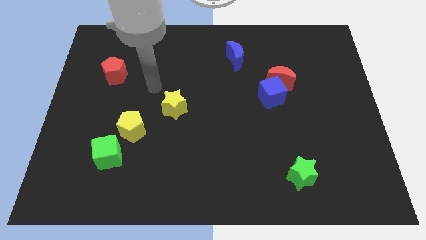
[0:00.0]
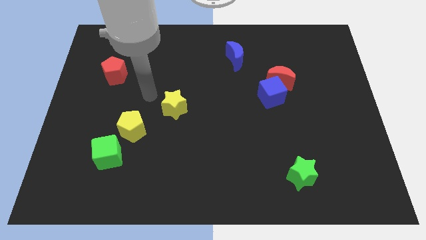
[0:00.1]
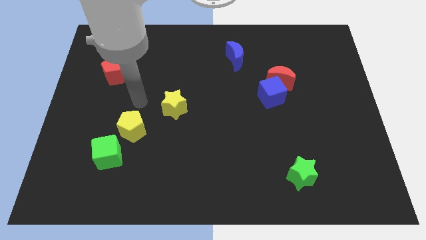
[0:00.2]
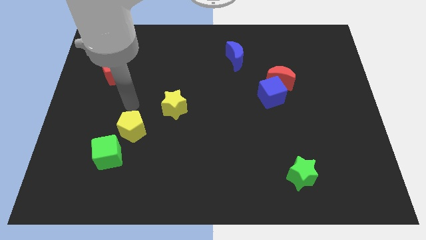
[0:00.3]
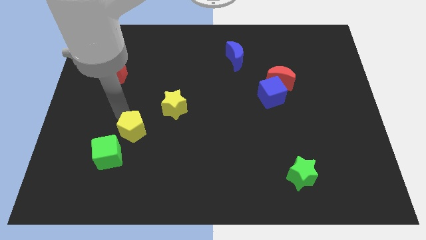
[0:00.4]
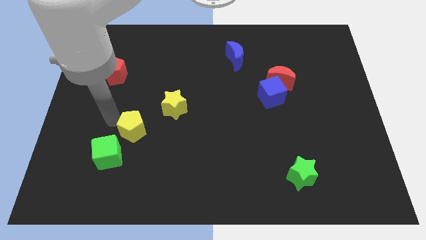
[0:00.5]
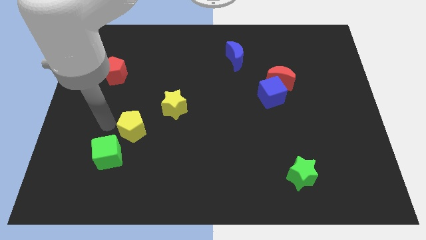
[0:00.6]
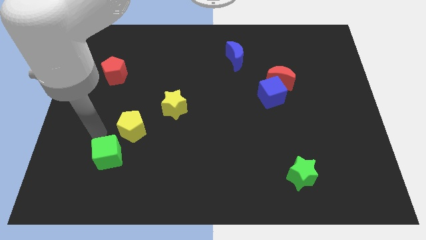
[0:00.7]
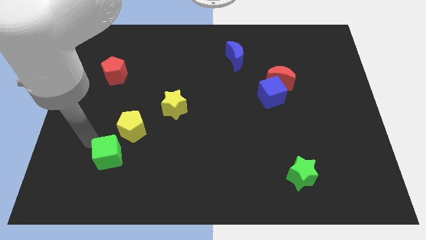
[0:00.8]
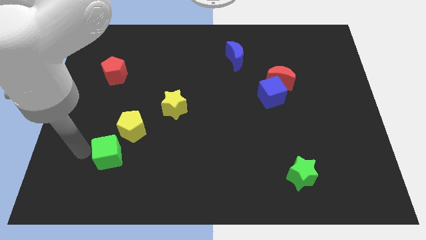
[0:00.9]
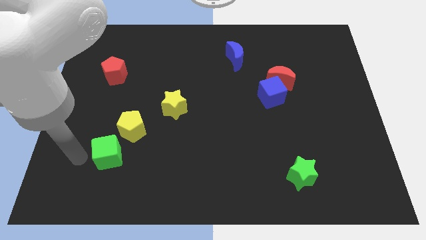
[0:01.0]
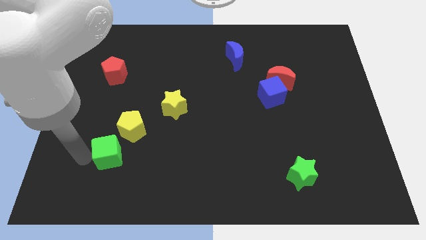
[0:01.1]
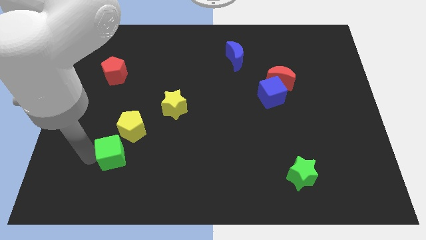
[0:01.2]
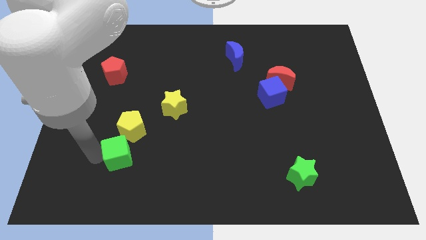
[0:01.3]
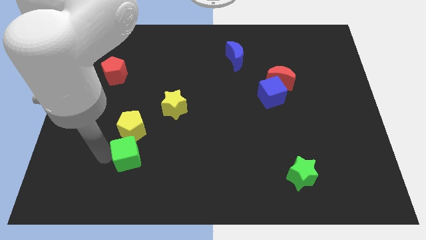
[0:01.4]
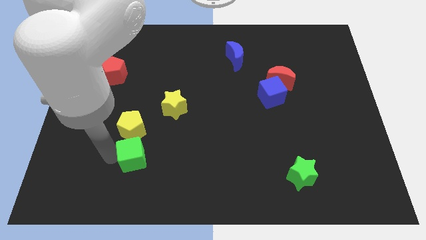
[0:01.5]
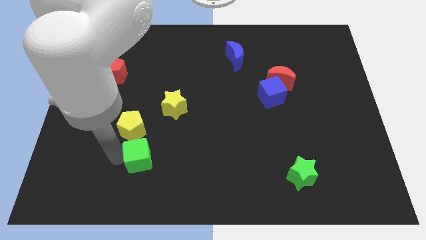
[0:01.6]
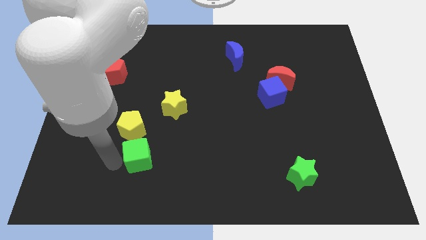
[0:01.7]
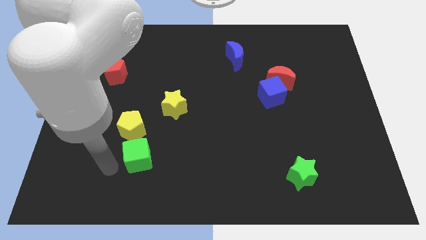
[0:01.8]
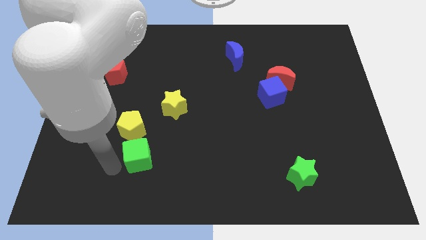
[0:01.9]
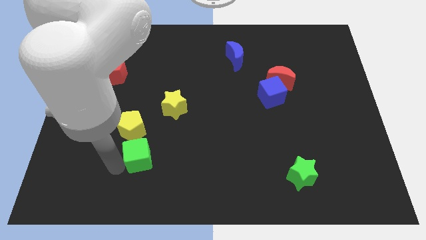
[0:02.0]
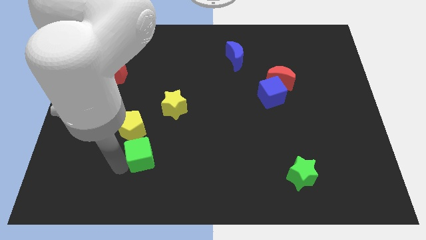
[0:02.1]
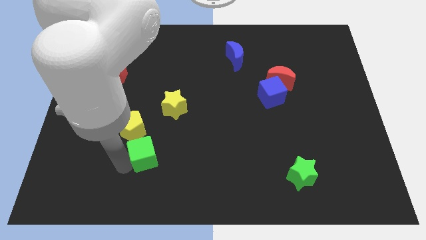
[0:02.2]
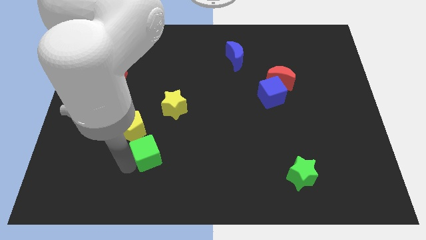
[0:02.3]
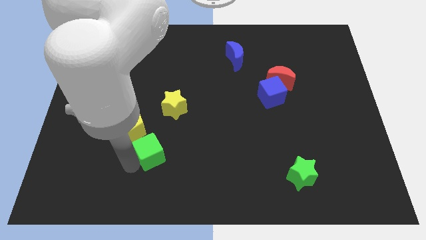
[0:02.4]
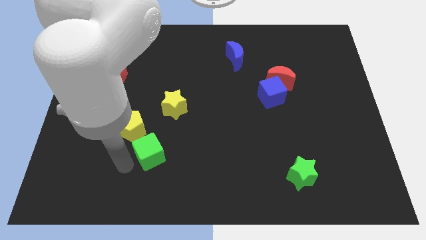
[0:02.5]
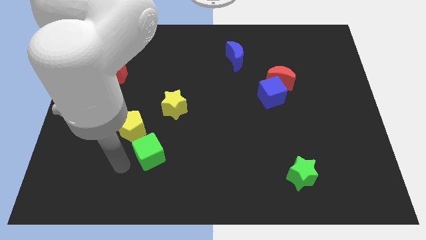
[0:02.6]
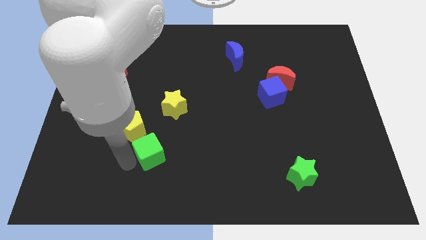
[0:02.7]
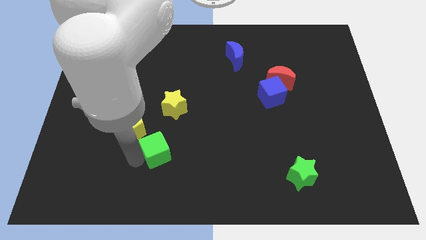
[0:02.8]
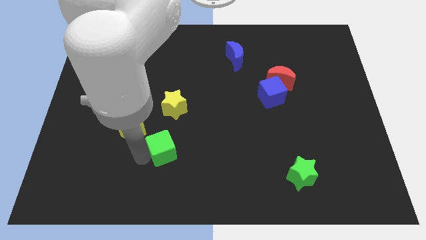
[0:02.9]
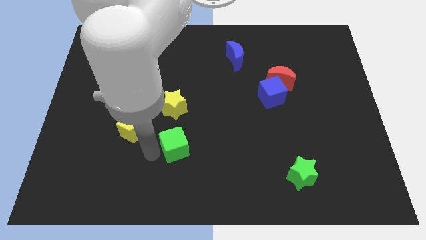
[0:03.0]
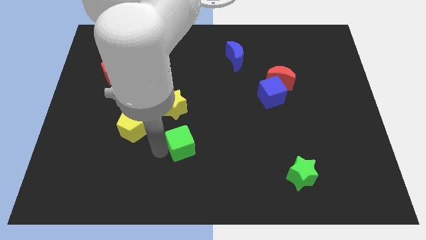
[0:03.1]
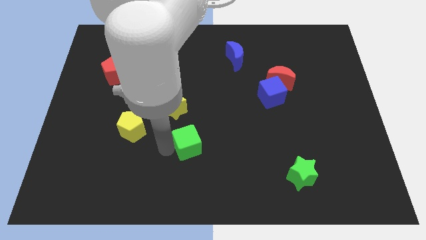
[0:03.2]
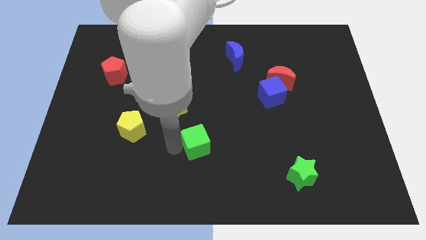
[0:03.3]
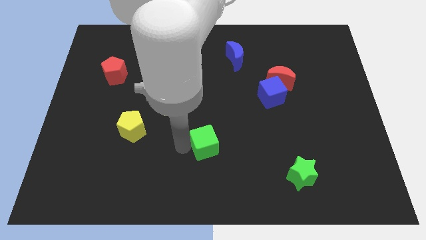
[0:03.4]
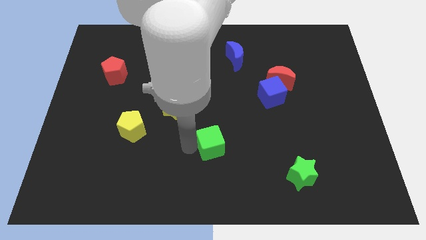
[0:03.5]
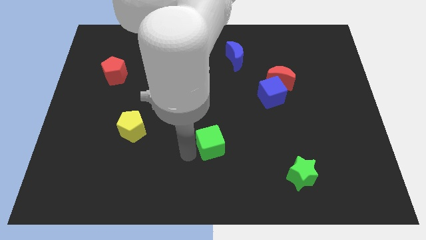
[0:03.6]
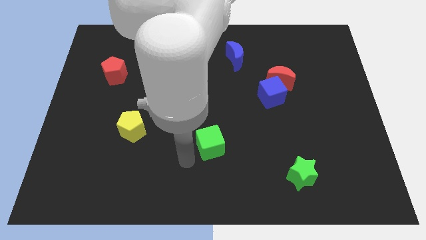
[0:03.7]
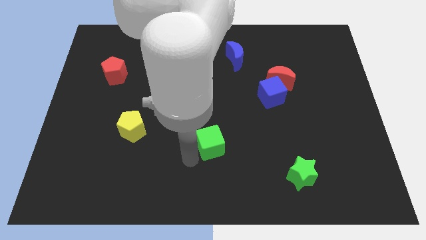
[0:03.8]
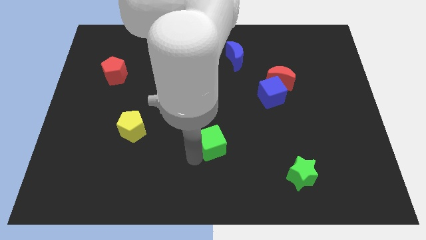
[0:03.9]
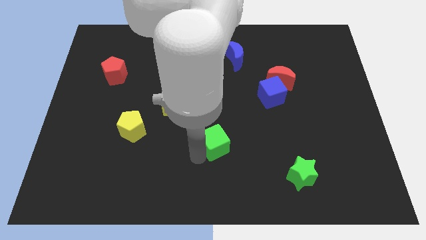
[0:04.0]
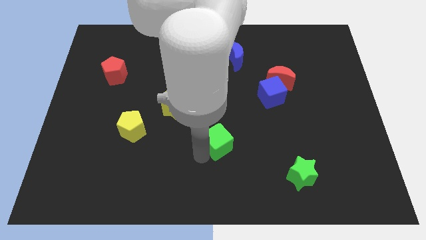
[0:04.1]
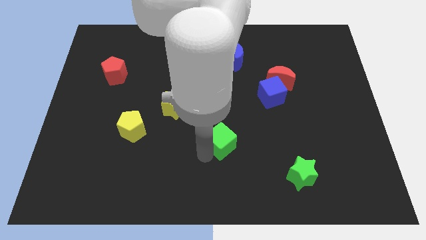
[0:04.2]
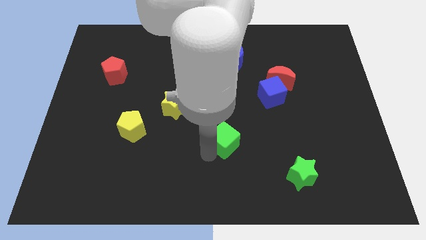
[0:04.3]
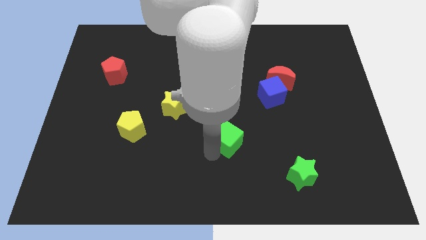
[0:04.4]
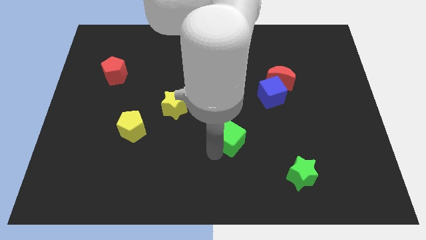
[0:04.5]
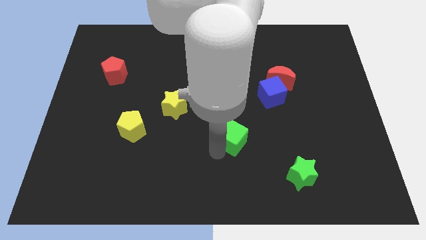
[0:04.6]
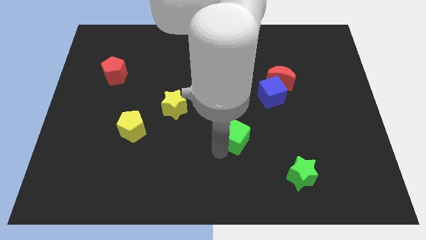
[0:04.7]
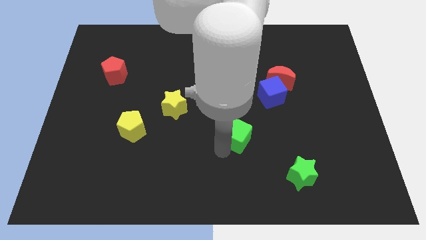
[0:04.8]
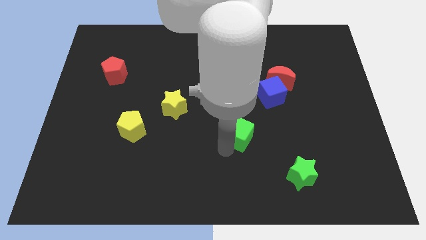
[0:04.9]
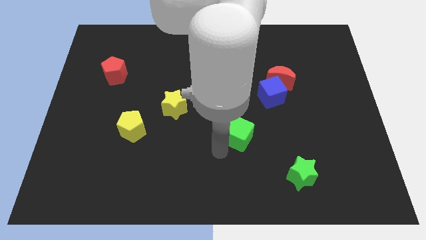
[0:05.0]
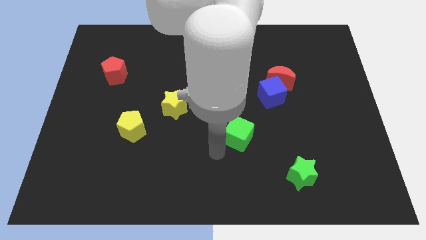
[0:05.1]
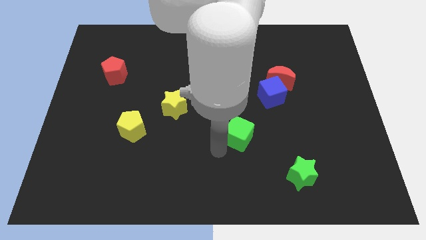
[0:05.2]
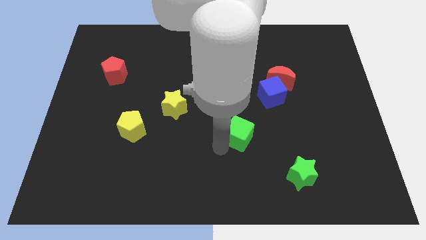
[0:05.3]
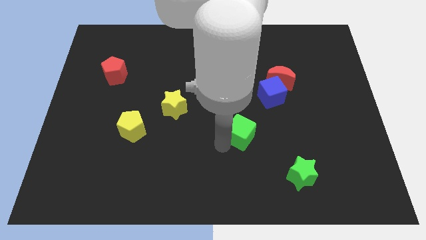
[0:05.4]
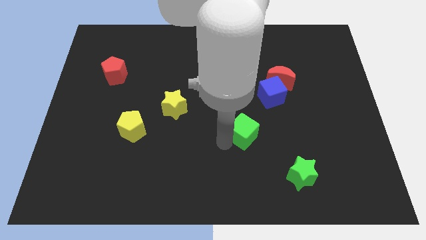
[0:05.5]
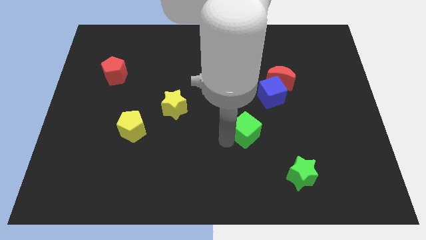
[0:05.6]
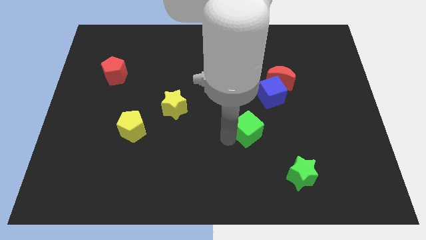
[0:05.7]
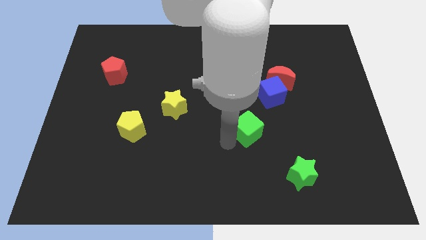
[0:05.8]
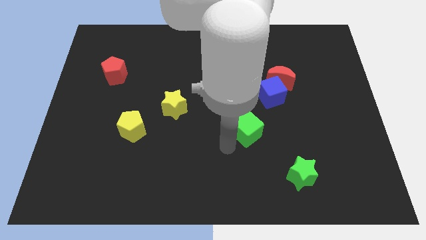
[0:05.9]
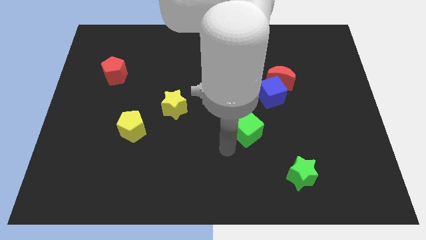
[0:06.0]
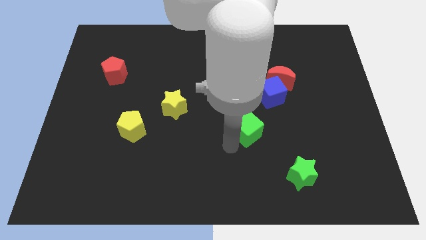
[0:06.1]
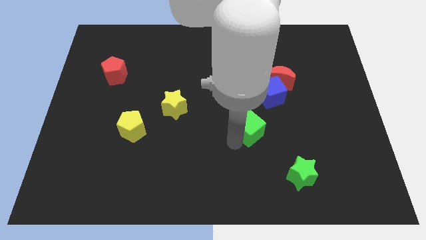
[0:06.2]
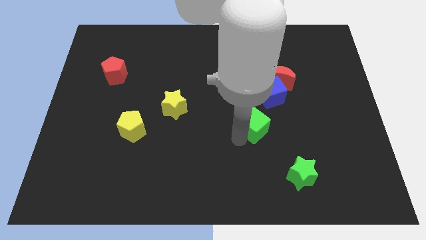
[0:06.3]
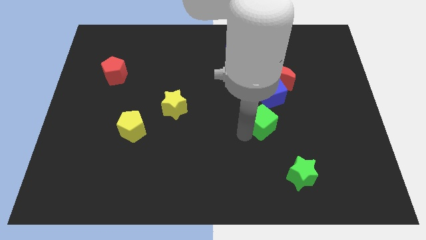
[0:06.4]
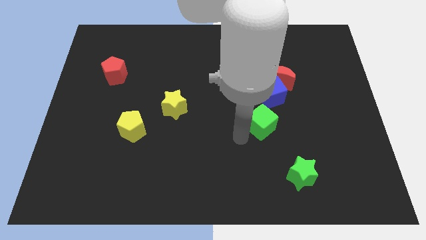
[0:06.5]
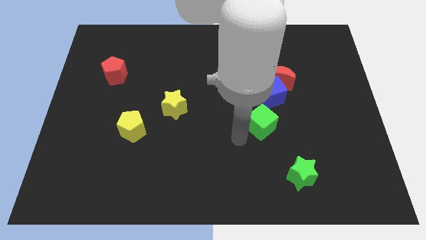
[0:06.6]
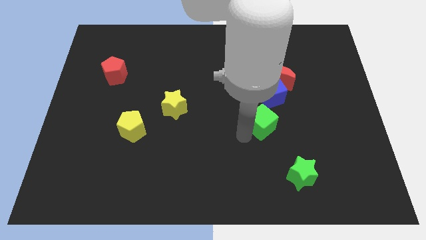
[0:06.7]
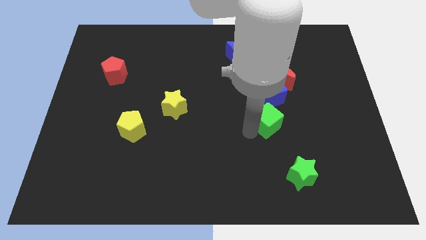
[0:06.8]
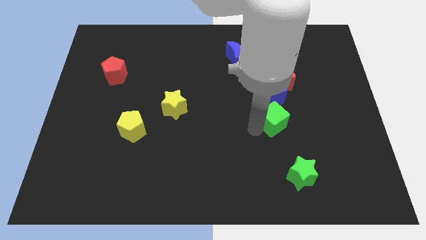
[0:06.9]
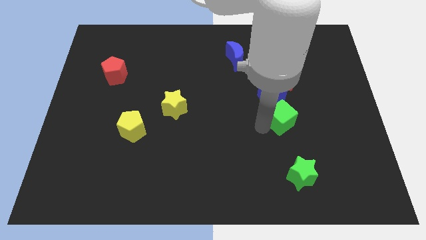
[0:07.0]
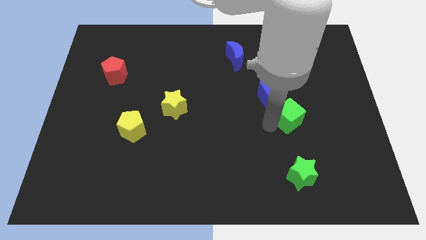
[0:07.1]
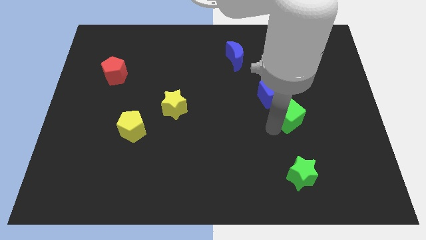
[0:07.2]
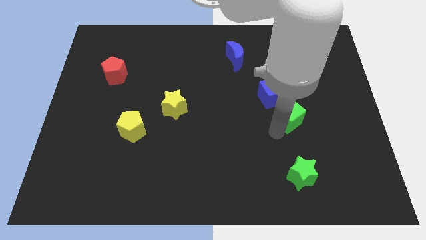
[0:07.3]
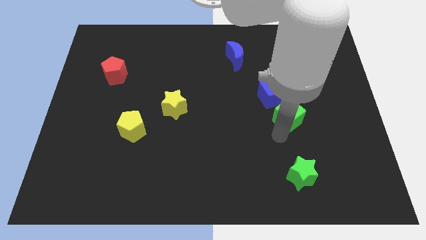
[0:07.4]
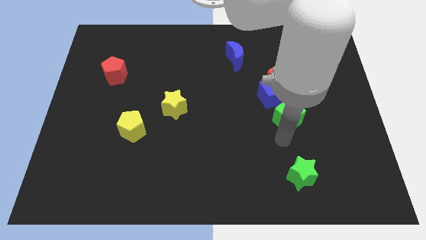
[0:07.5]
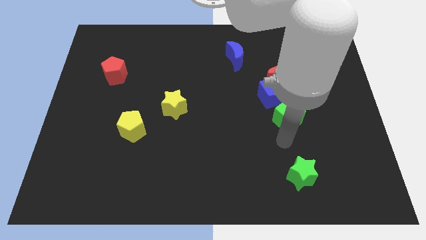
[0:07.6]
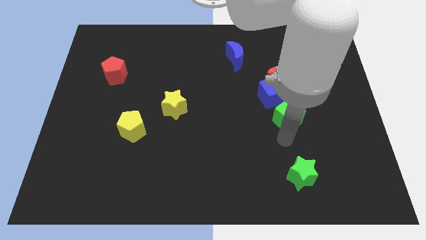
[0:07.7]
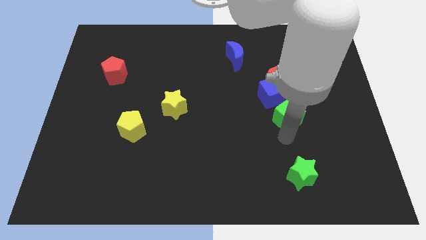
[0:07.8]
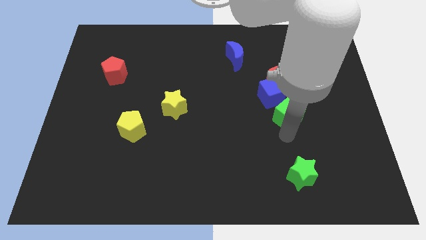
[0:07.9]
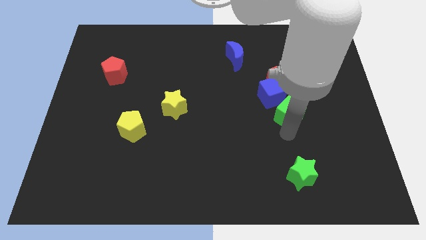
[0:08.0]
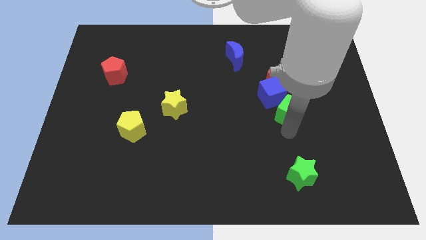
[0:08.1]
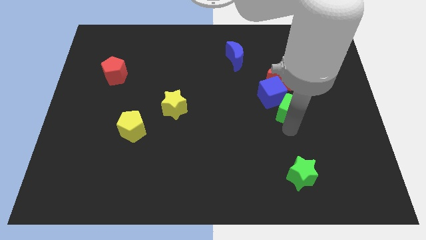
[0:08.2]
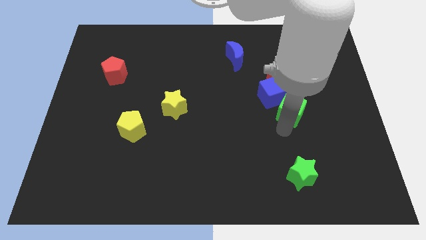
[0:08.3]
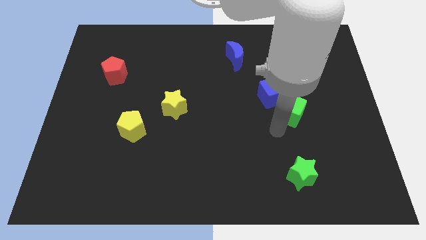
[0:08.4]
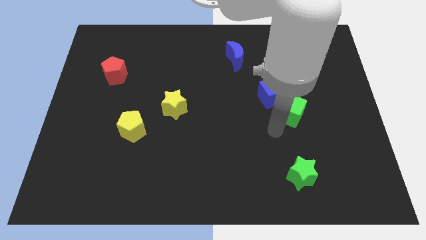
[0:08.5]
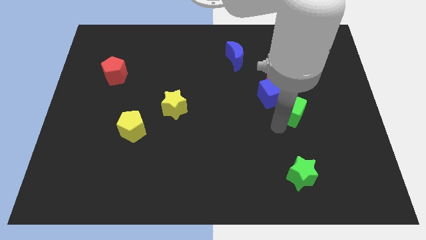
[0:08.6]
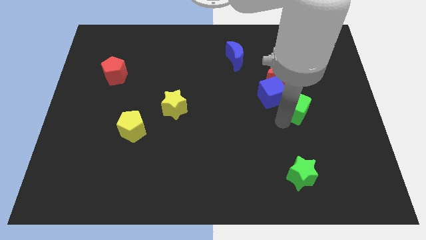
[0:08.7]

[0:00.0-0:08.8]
push the green cube to the bottom right of the red moon
